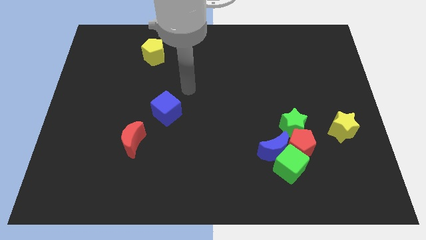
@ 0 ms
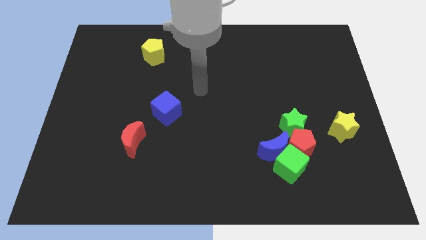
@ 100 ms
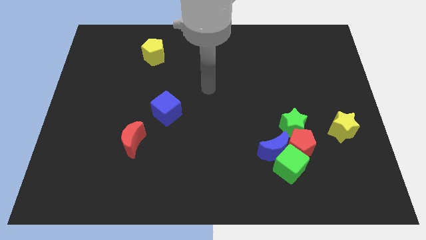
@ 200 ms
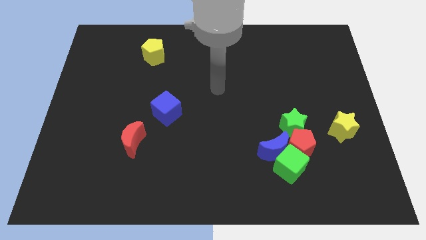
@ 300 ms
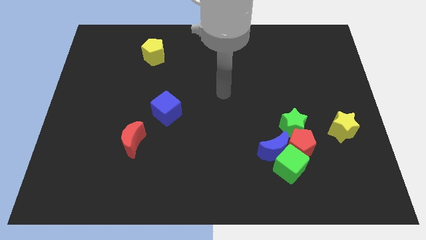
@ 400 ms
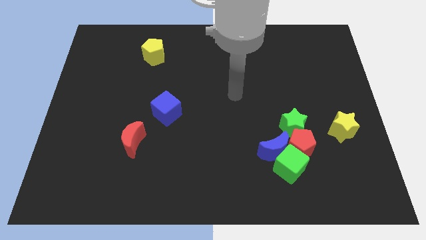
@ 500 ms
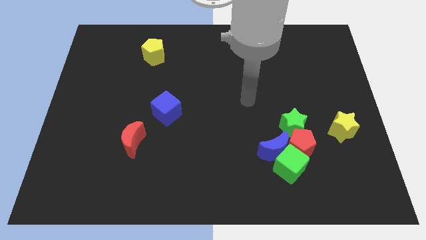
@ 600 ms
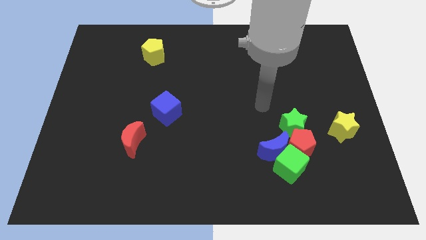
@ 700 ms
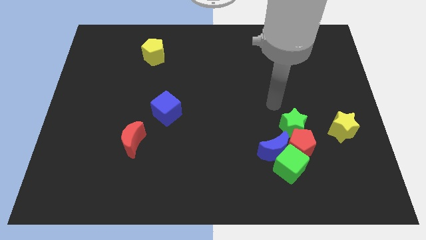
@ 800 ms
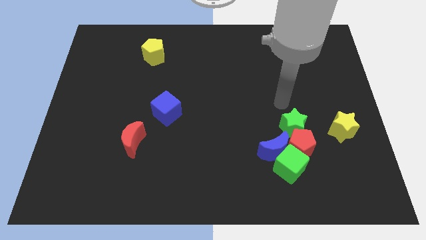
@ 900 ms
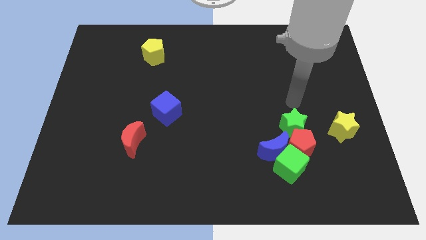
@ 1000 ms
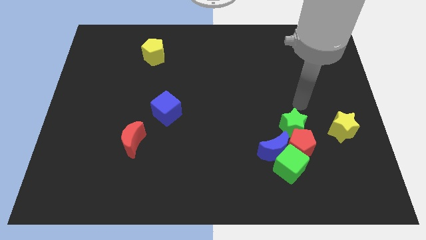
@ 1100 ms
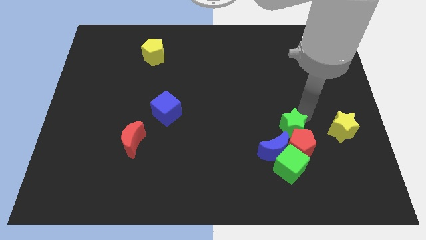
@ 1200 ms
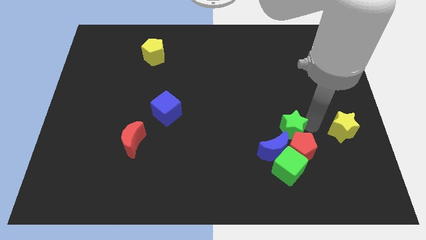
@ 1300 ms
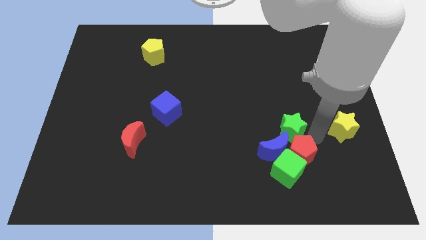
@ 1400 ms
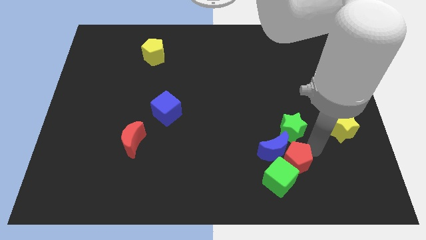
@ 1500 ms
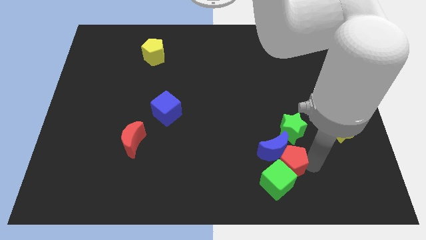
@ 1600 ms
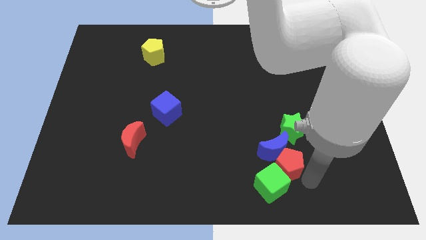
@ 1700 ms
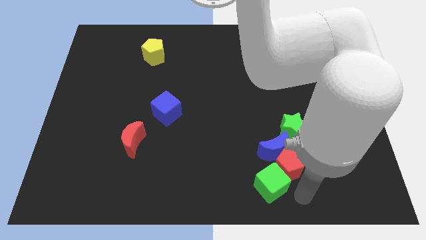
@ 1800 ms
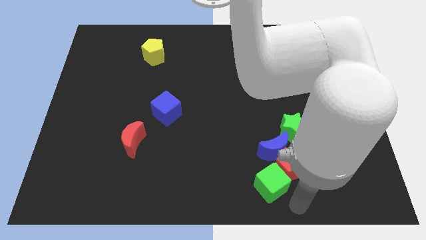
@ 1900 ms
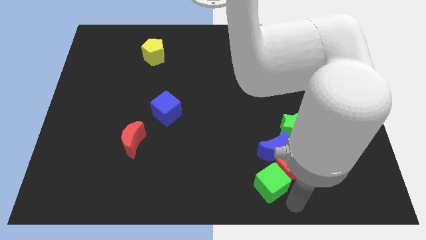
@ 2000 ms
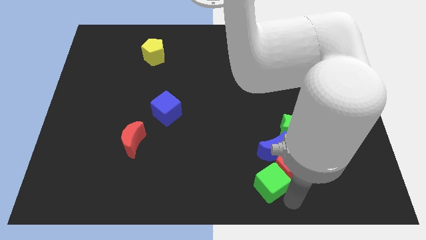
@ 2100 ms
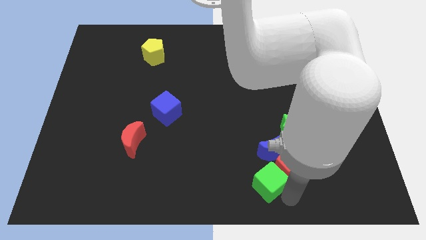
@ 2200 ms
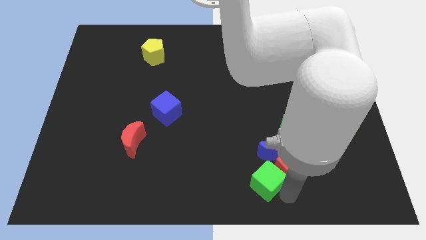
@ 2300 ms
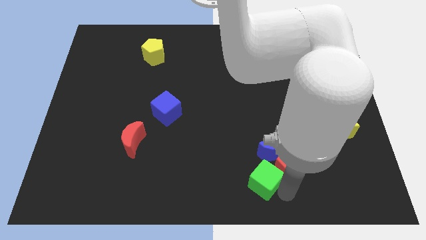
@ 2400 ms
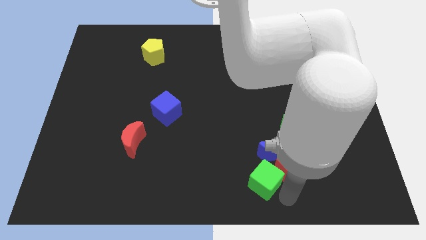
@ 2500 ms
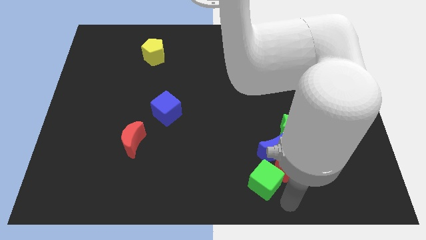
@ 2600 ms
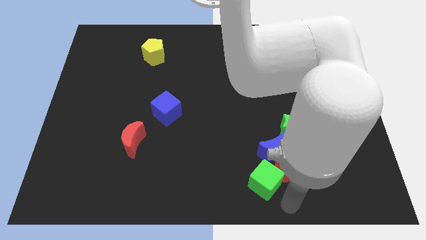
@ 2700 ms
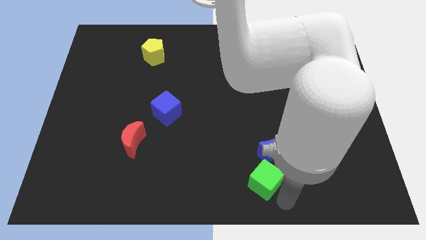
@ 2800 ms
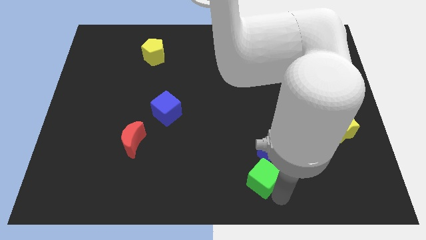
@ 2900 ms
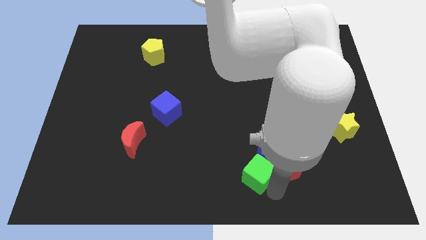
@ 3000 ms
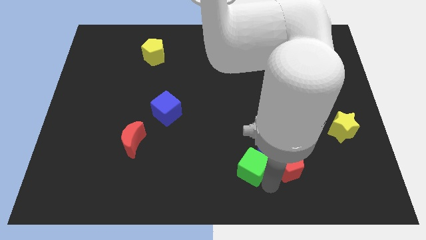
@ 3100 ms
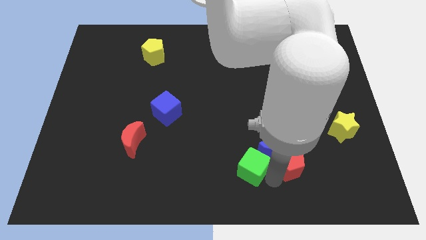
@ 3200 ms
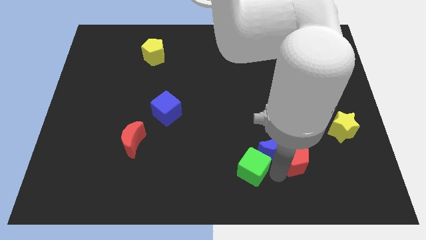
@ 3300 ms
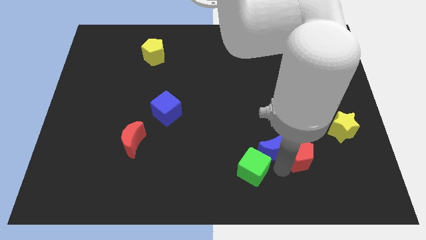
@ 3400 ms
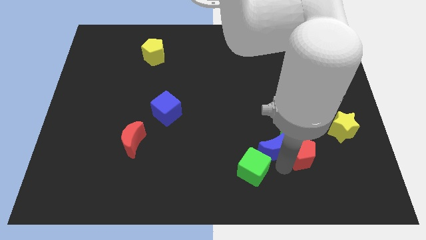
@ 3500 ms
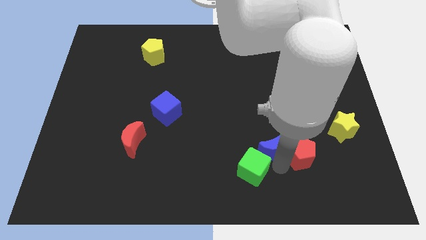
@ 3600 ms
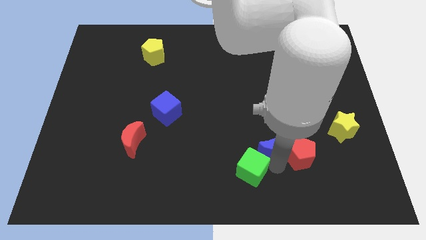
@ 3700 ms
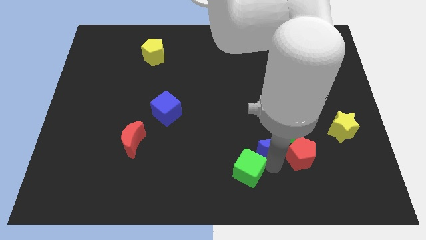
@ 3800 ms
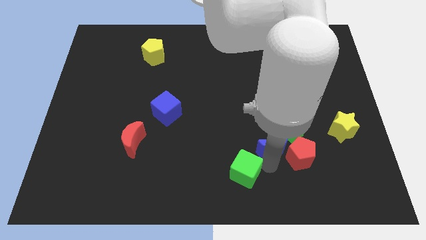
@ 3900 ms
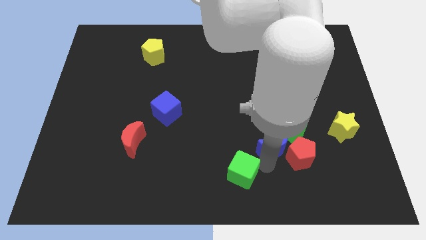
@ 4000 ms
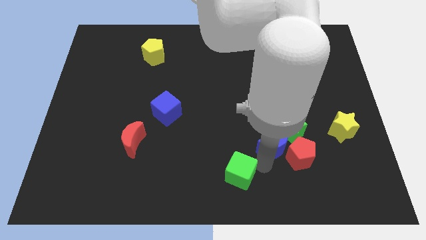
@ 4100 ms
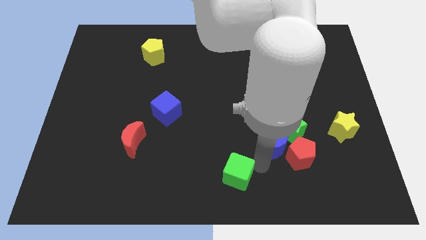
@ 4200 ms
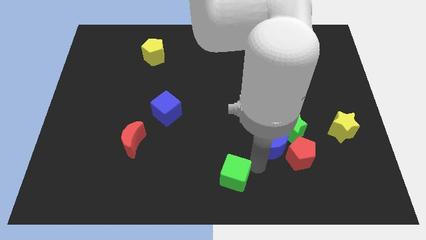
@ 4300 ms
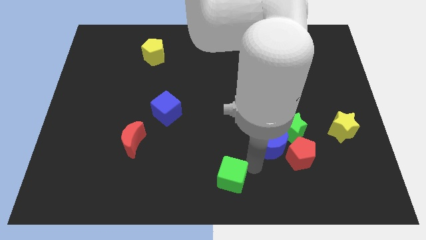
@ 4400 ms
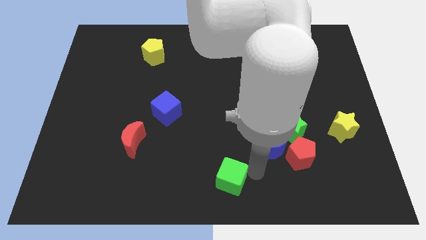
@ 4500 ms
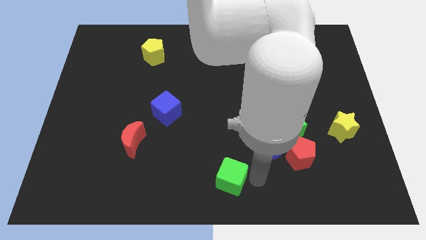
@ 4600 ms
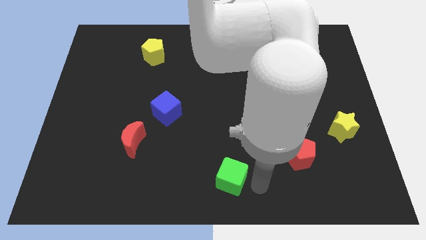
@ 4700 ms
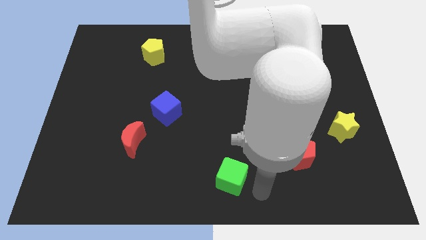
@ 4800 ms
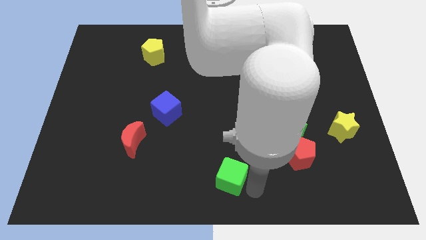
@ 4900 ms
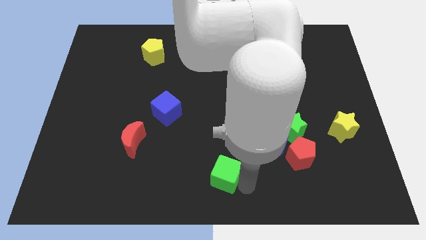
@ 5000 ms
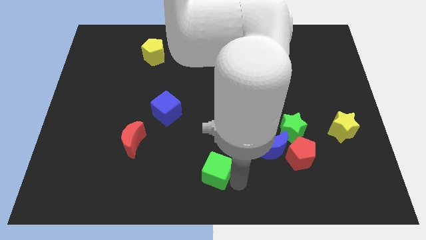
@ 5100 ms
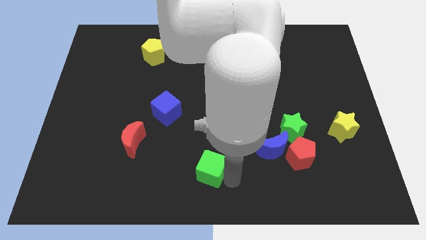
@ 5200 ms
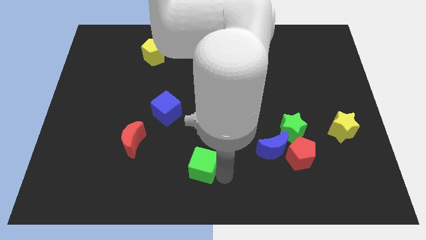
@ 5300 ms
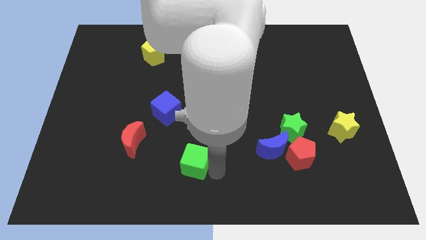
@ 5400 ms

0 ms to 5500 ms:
push the green cube to the left

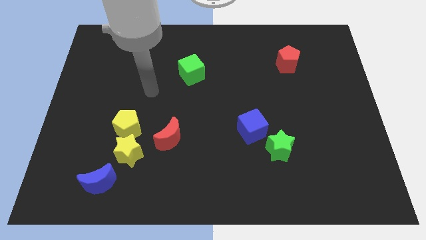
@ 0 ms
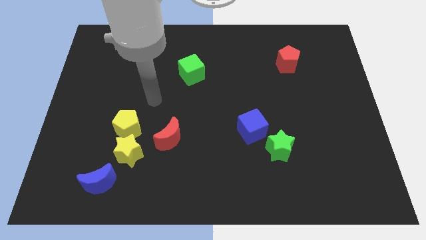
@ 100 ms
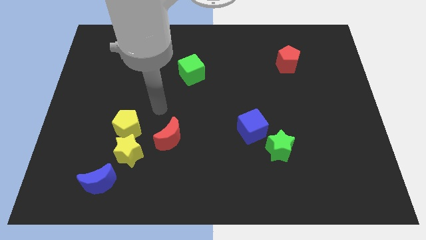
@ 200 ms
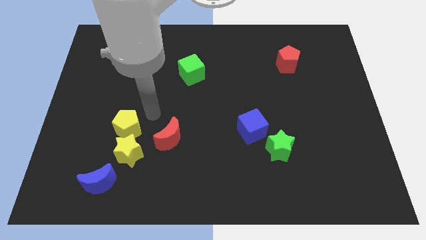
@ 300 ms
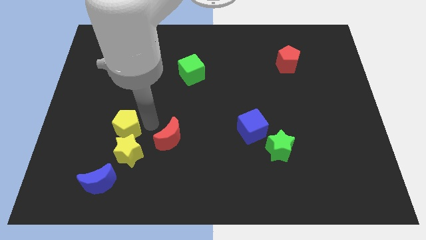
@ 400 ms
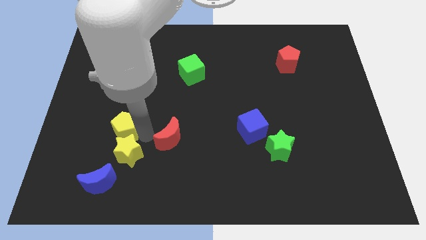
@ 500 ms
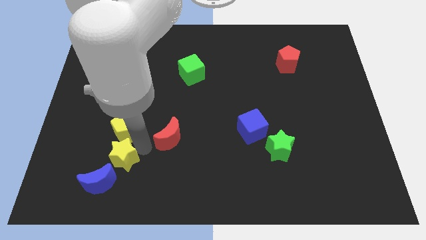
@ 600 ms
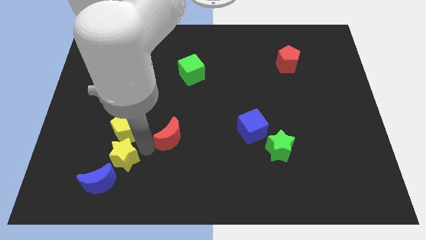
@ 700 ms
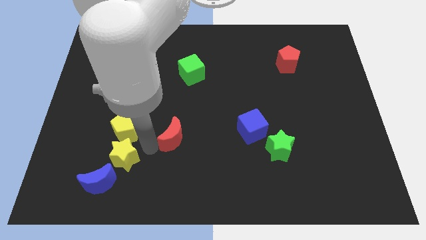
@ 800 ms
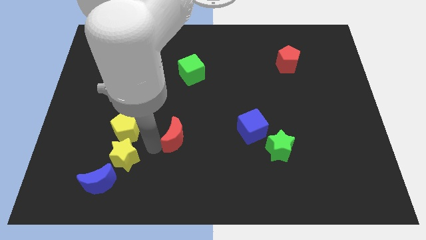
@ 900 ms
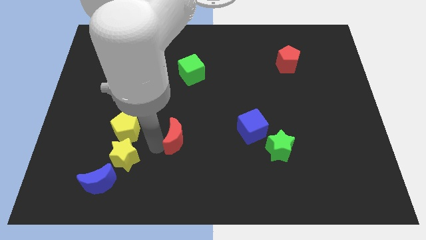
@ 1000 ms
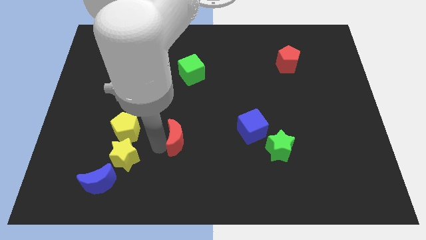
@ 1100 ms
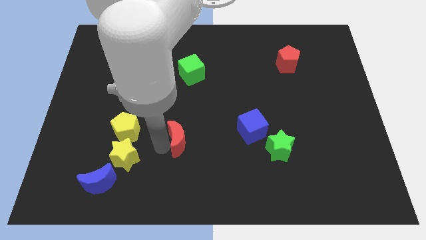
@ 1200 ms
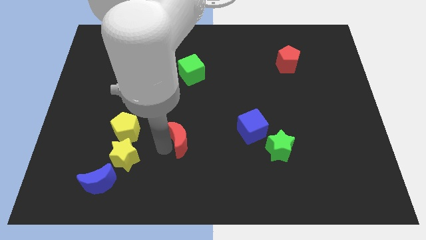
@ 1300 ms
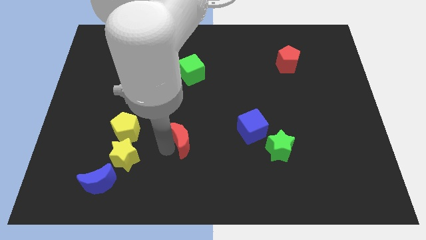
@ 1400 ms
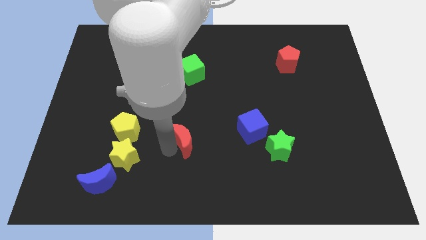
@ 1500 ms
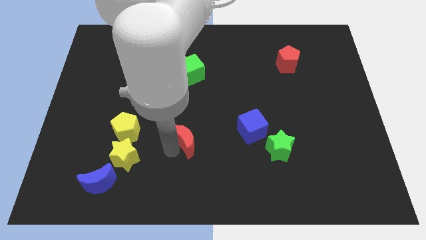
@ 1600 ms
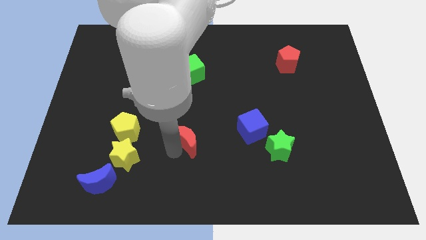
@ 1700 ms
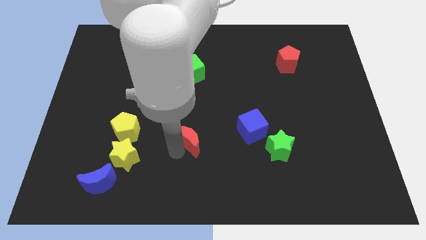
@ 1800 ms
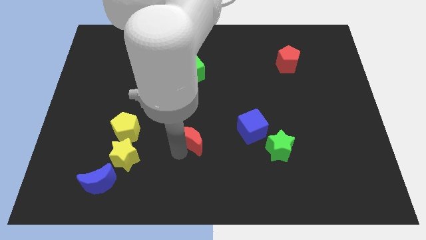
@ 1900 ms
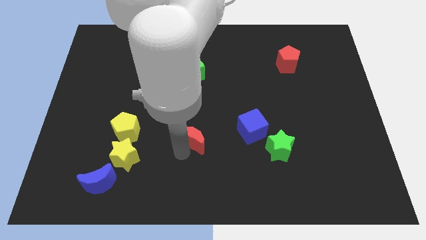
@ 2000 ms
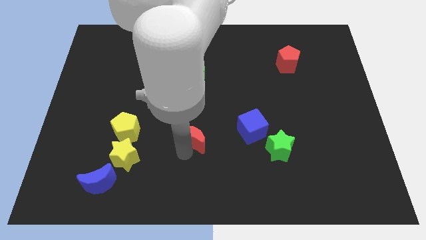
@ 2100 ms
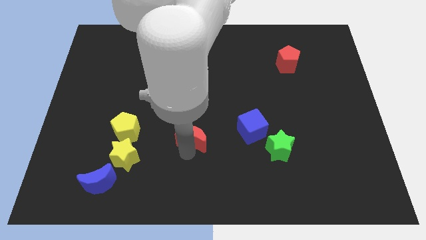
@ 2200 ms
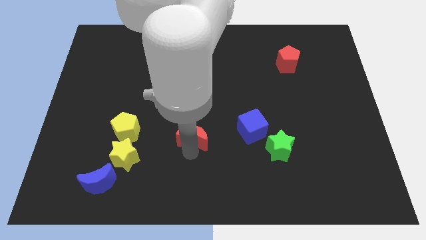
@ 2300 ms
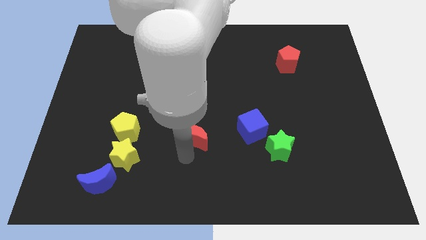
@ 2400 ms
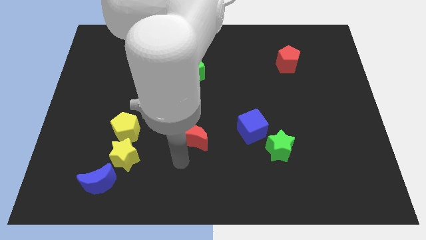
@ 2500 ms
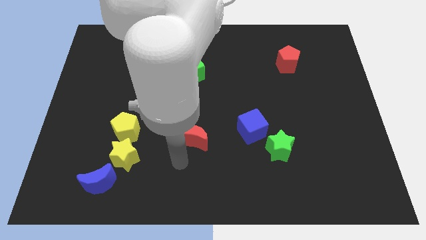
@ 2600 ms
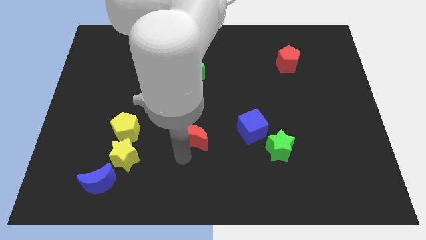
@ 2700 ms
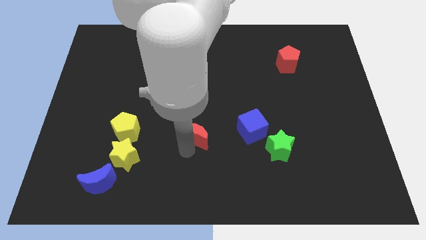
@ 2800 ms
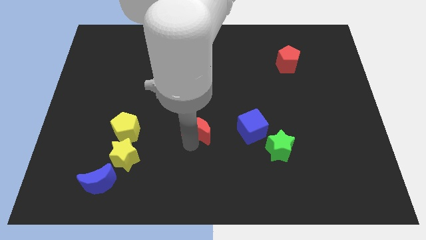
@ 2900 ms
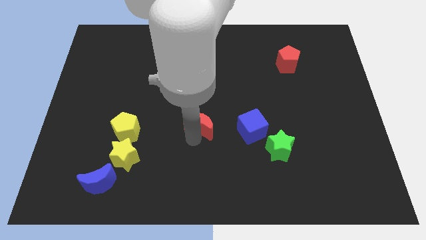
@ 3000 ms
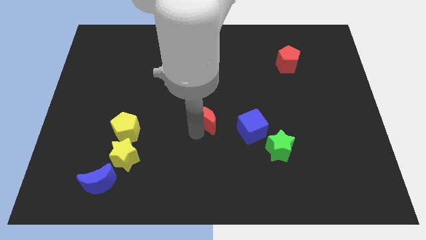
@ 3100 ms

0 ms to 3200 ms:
push the red moon slightly diagonally upwards and right
